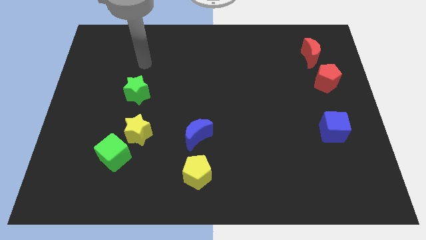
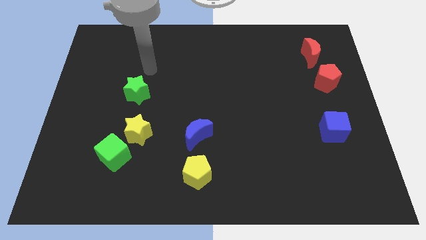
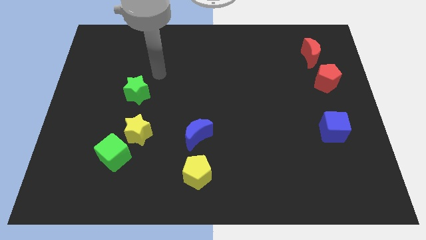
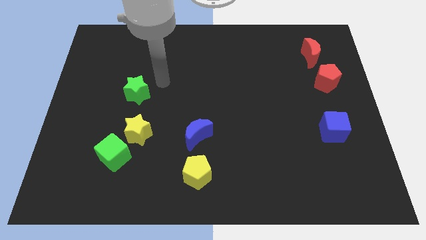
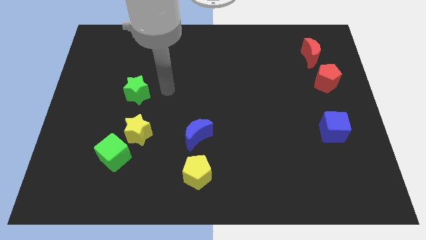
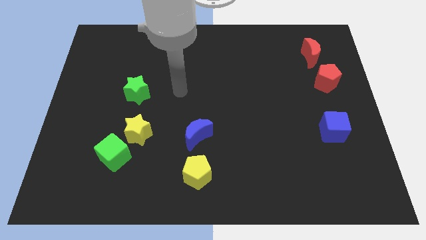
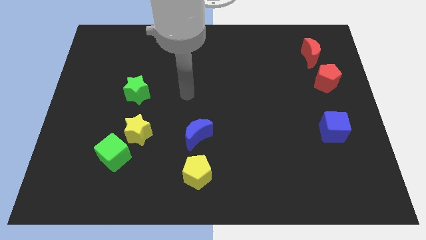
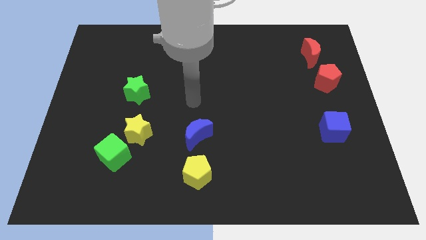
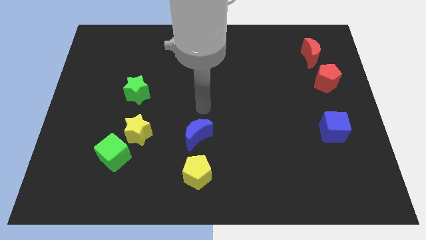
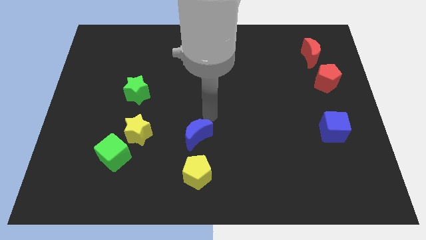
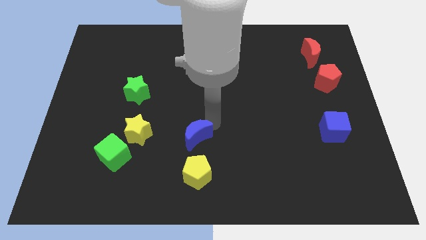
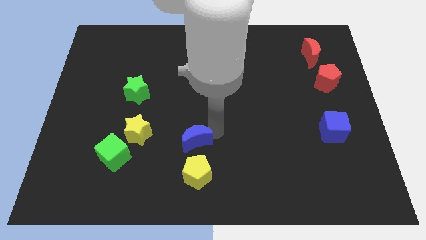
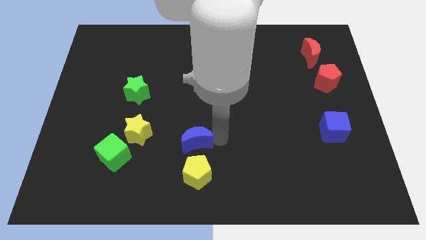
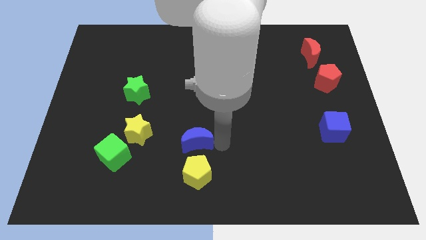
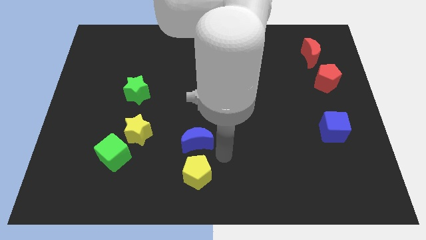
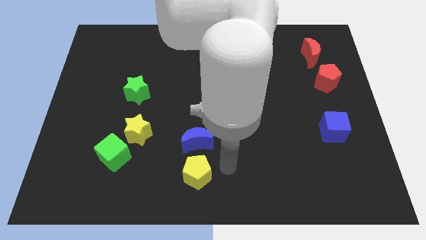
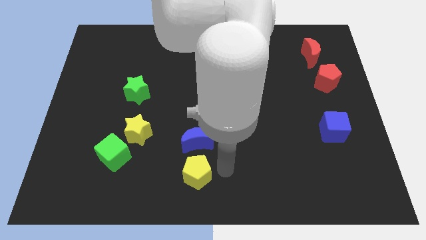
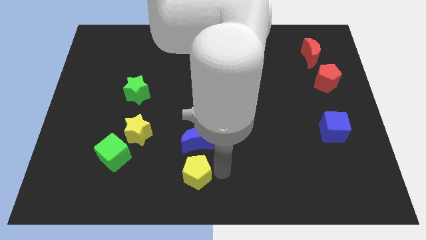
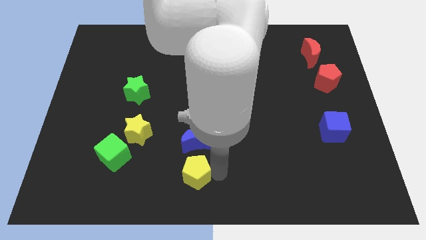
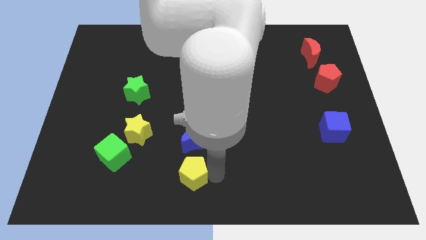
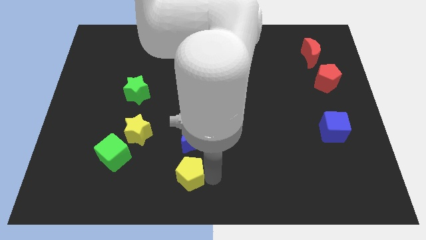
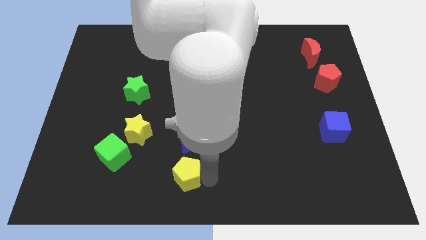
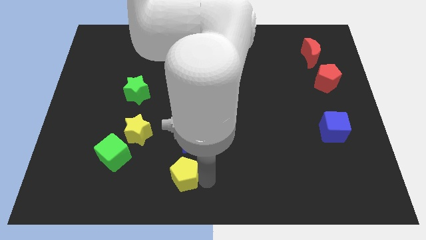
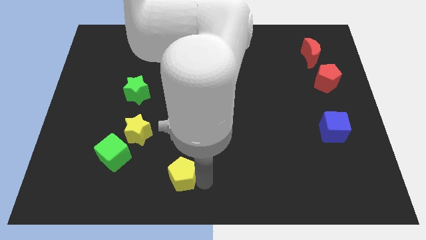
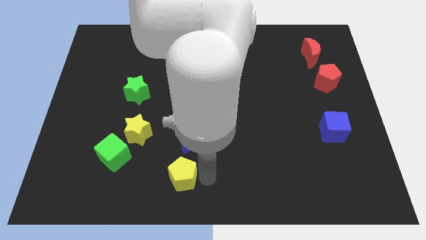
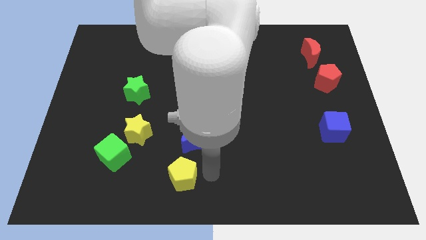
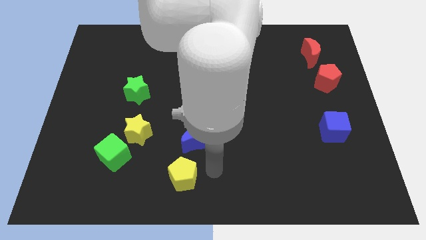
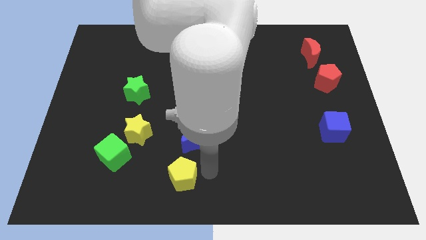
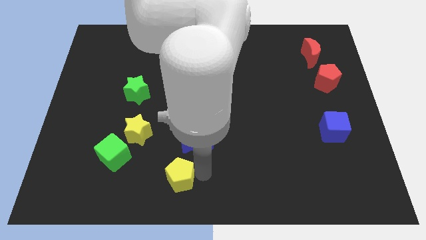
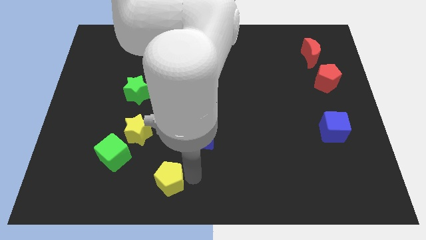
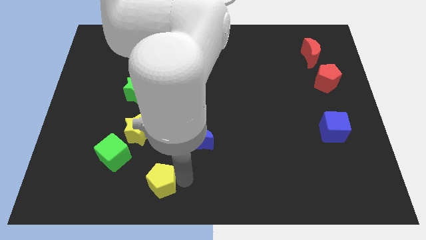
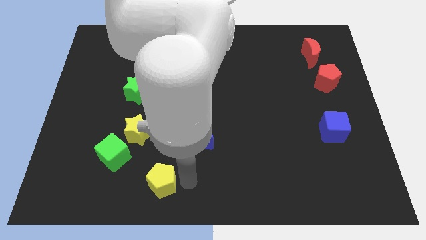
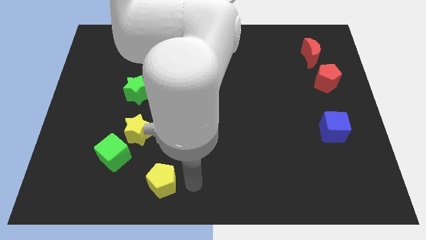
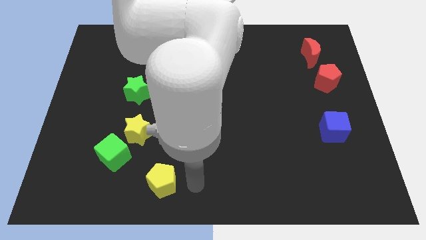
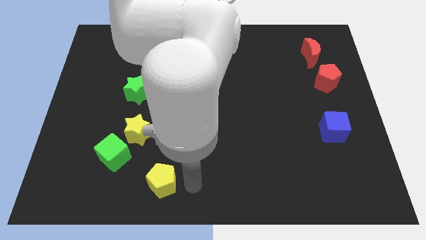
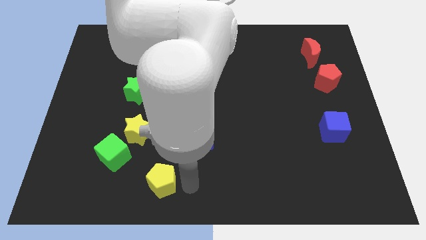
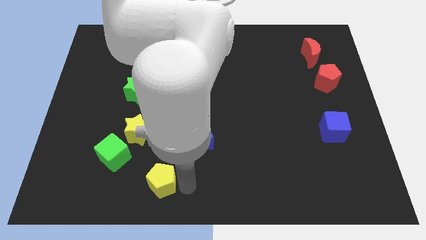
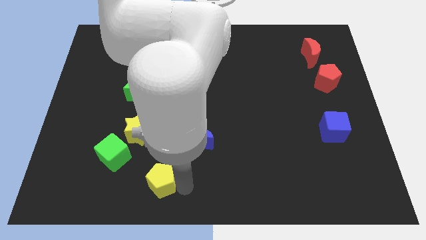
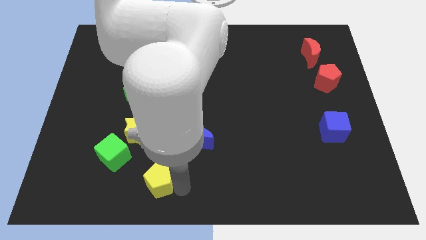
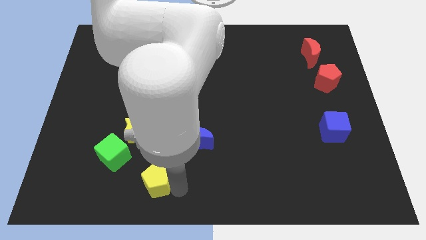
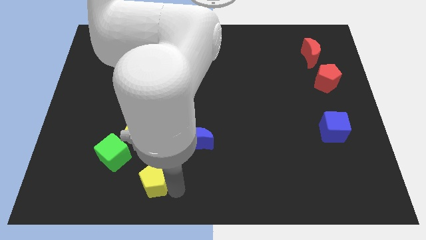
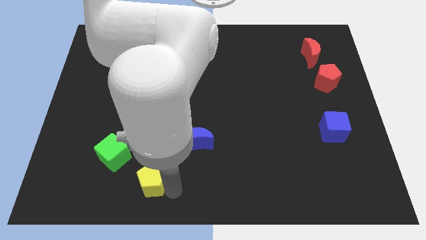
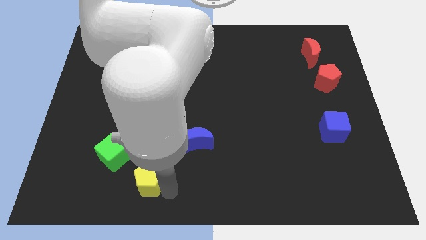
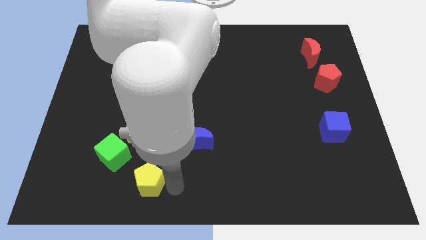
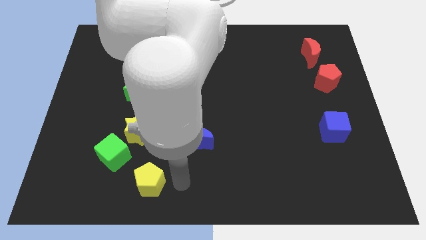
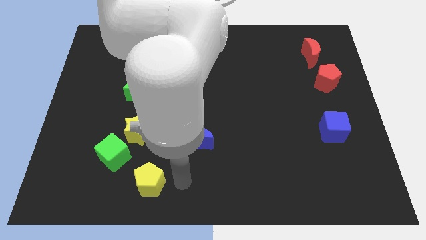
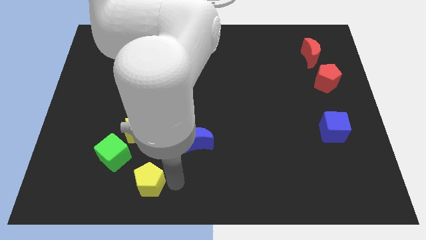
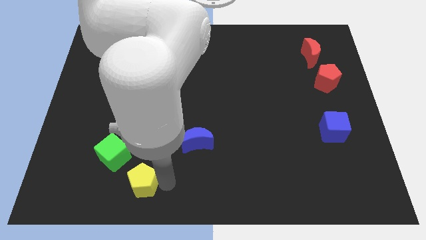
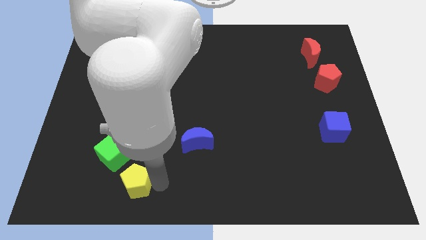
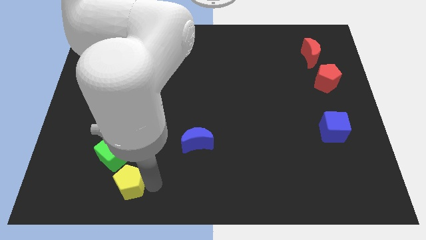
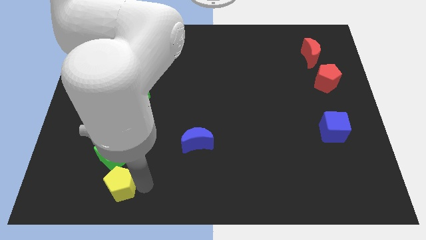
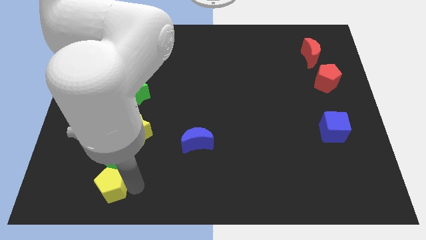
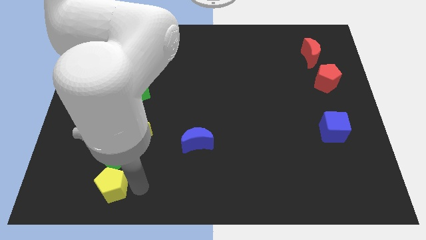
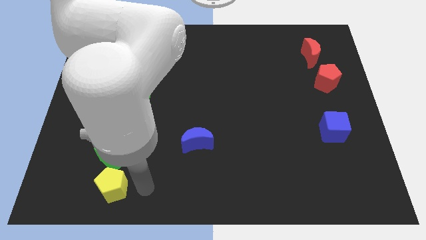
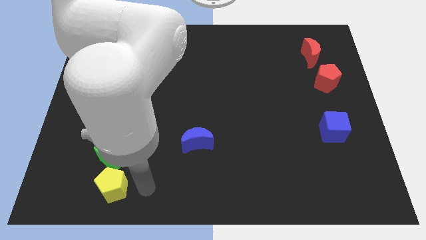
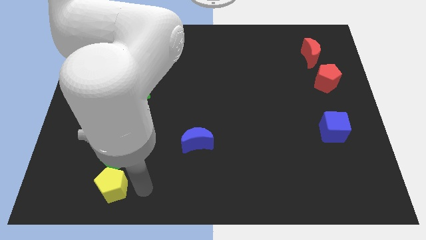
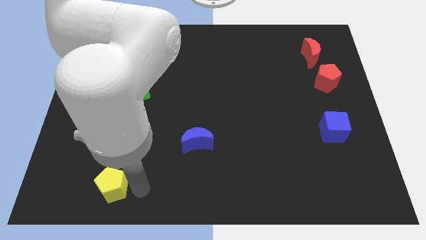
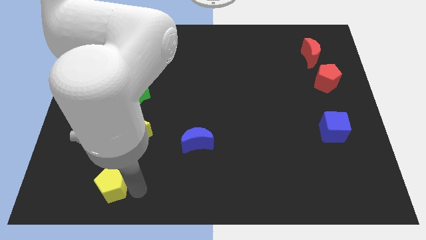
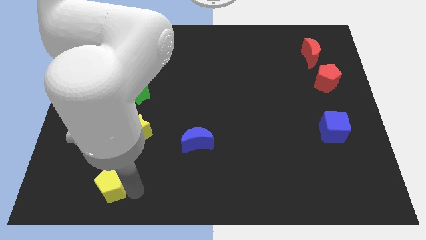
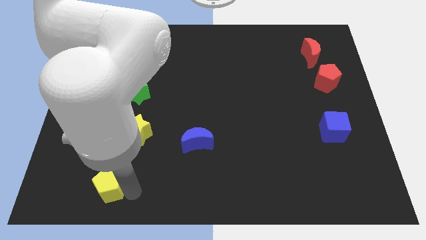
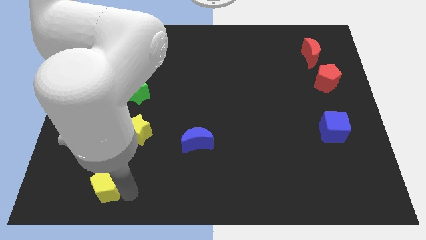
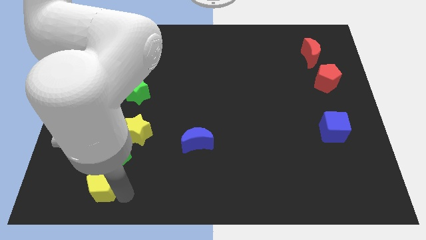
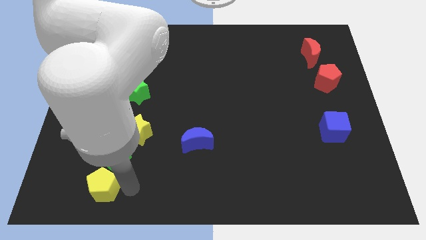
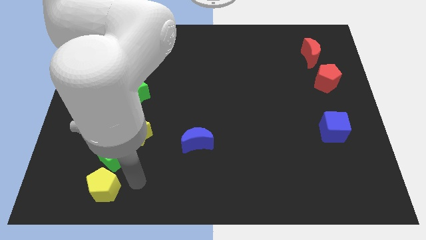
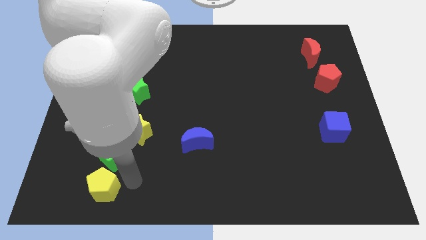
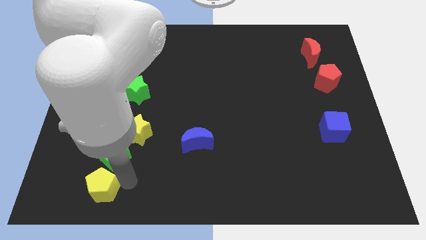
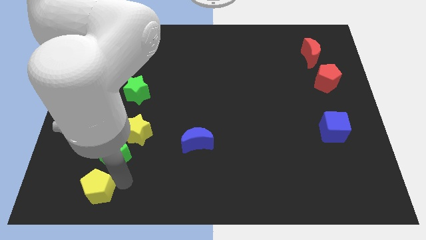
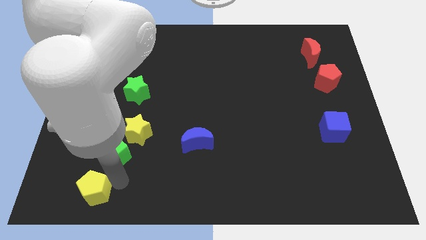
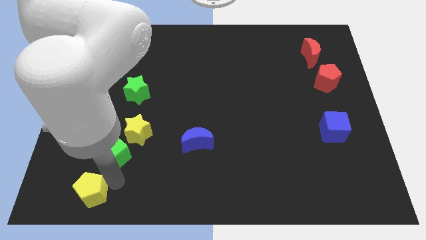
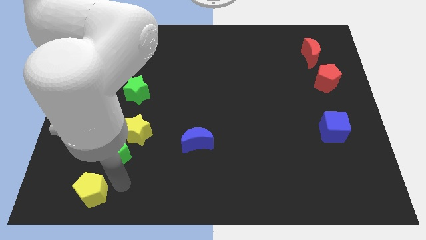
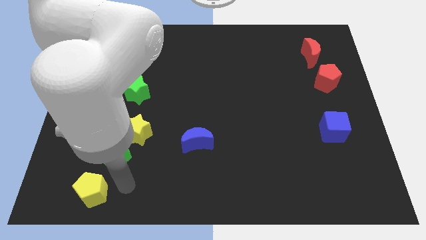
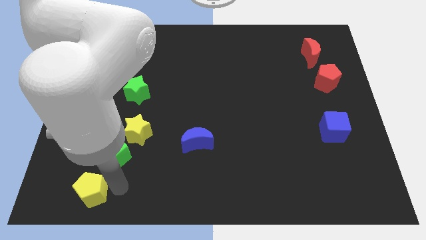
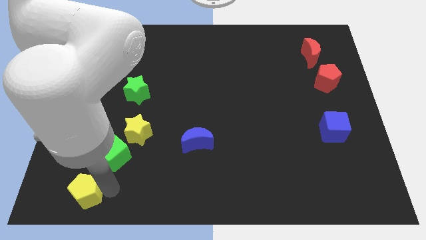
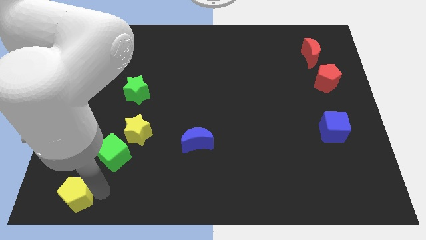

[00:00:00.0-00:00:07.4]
move the yellow pentagon to the bottom left

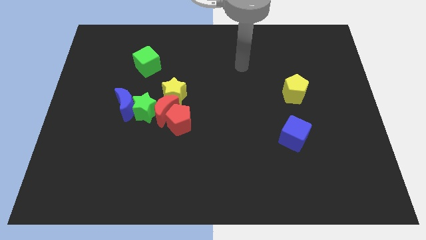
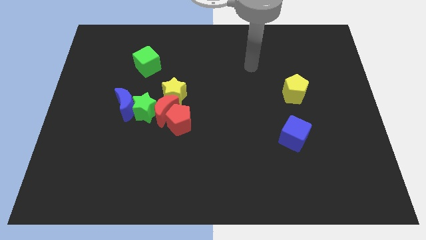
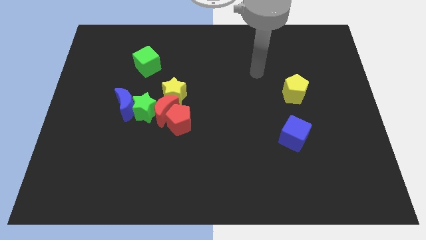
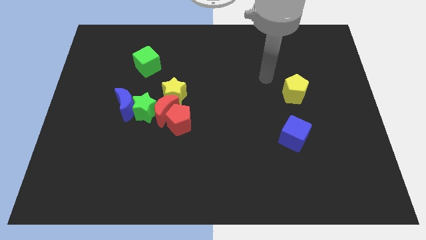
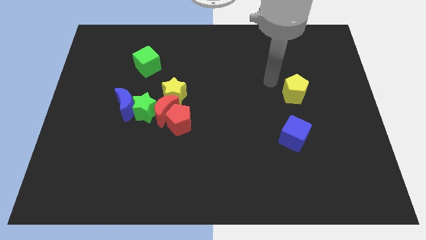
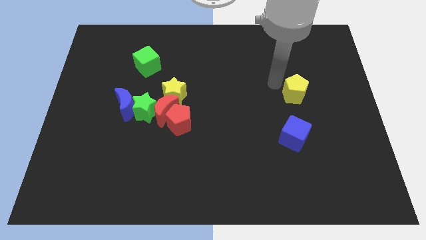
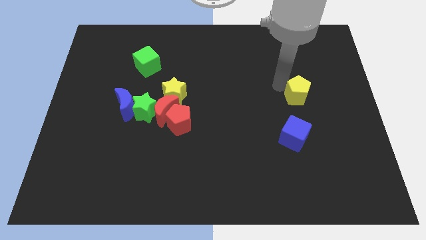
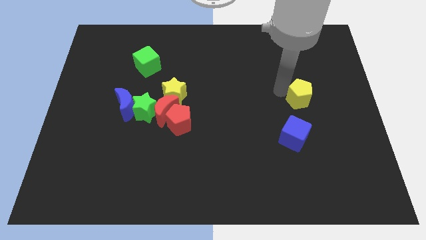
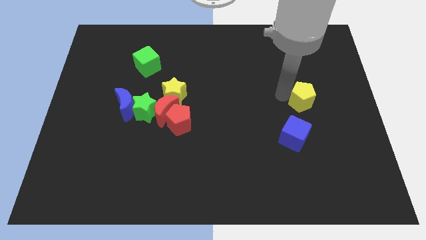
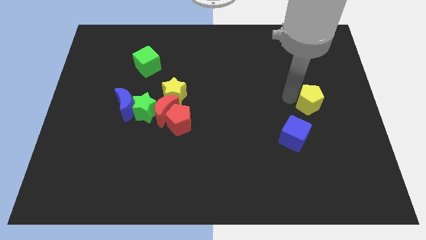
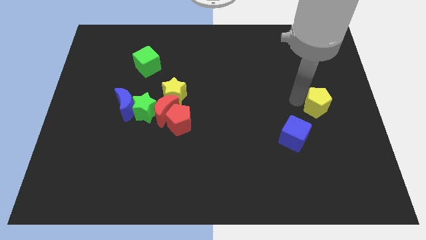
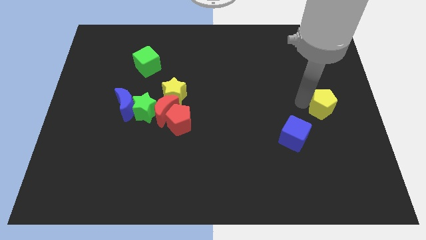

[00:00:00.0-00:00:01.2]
put the yellow pentagon to the right side
